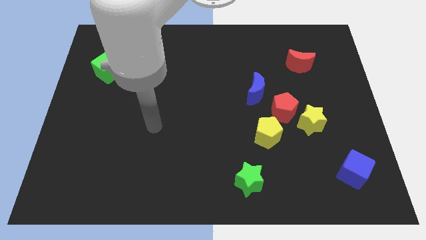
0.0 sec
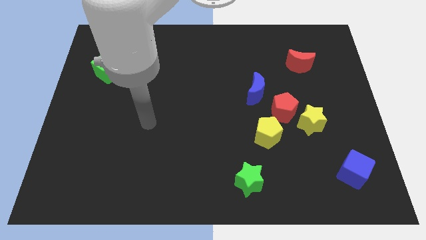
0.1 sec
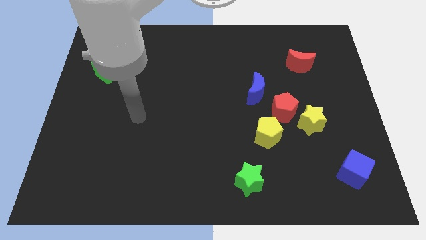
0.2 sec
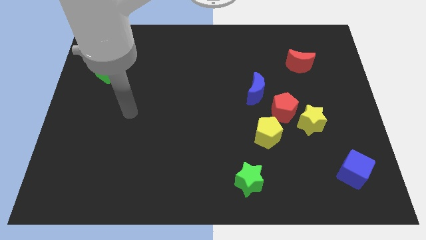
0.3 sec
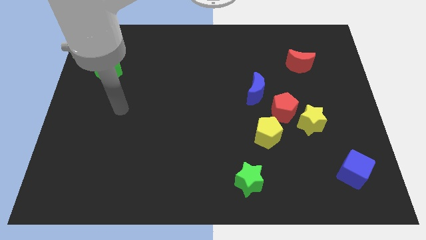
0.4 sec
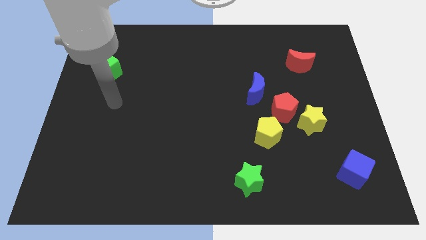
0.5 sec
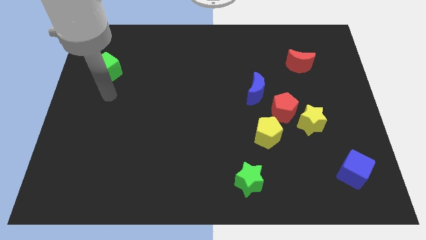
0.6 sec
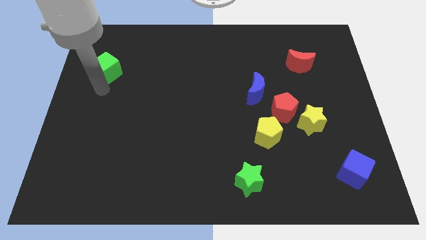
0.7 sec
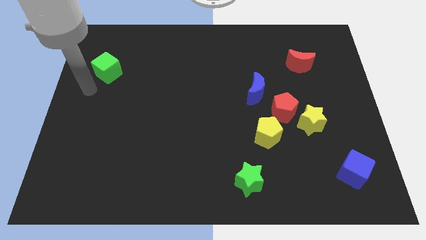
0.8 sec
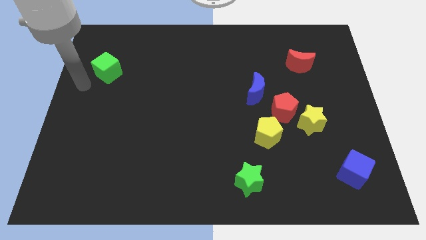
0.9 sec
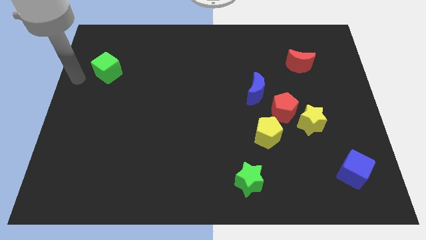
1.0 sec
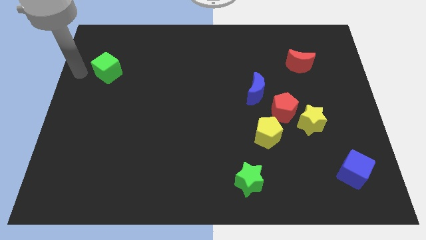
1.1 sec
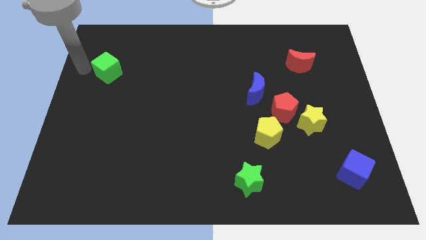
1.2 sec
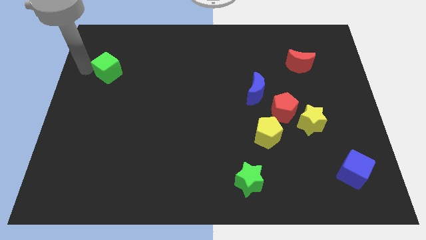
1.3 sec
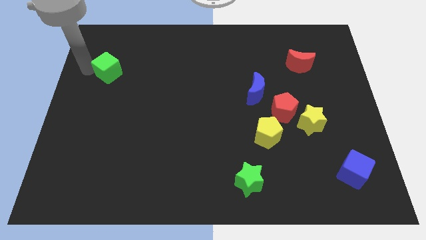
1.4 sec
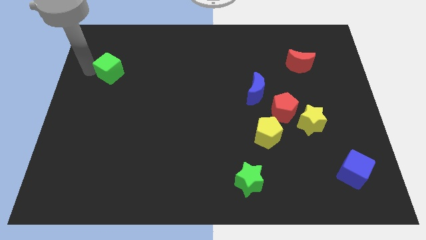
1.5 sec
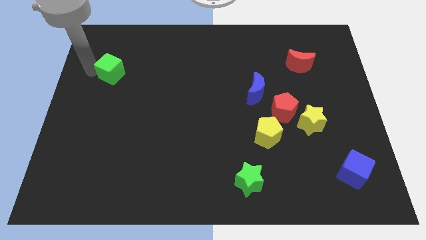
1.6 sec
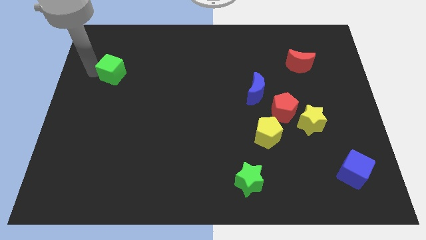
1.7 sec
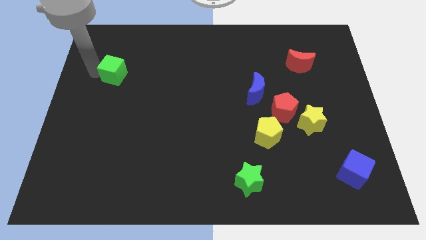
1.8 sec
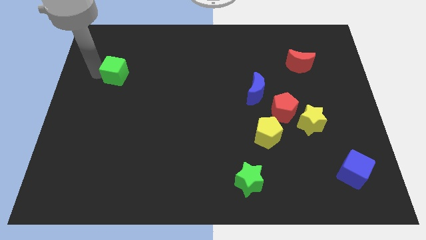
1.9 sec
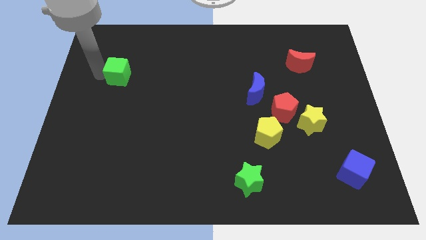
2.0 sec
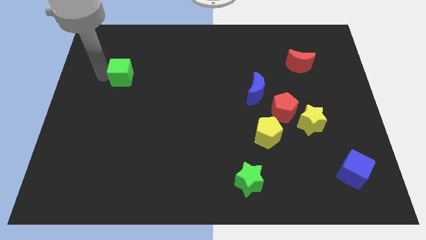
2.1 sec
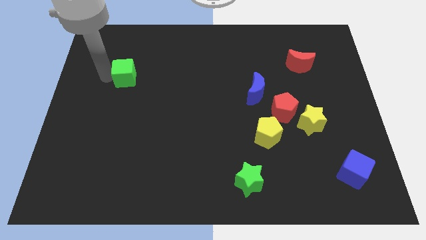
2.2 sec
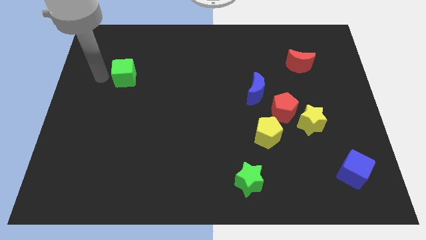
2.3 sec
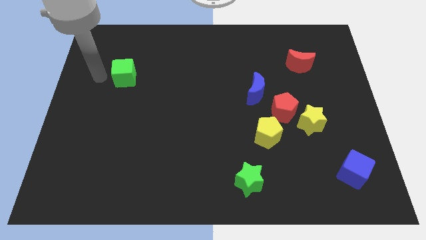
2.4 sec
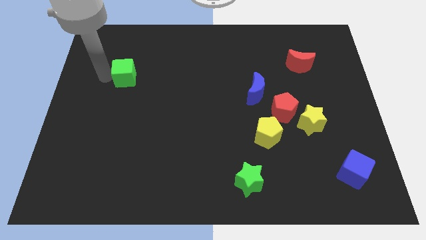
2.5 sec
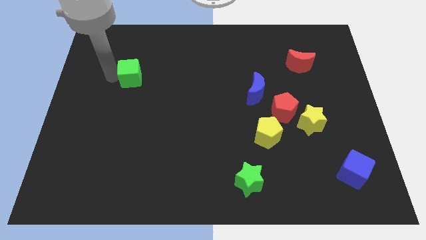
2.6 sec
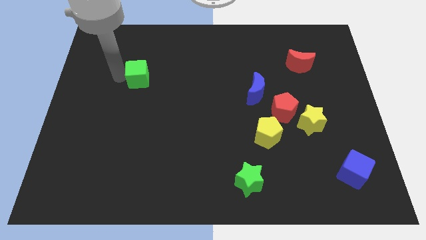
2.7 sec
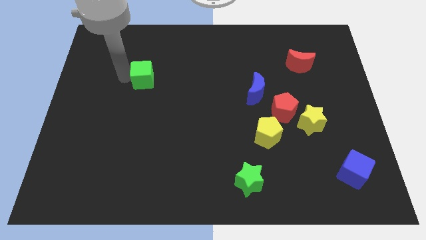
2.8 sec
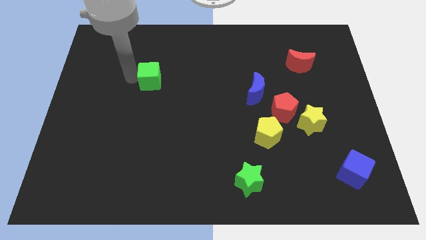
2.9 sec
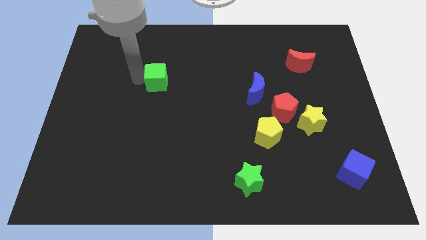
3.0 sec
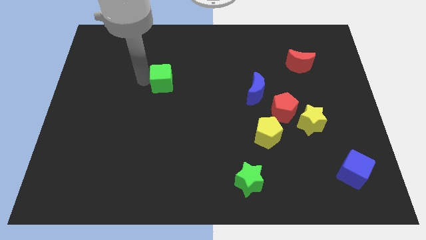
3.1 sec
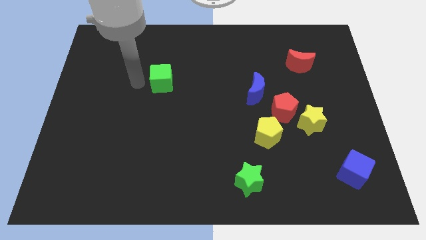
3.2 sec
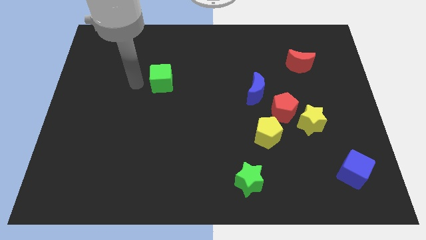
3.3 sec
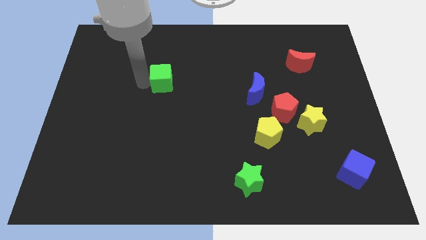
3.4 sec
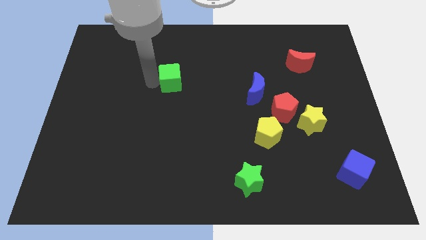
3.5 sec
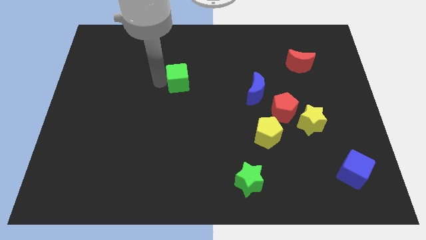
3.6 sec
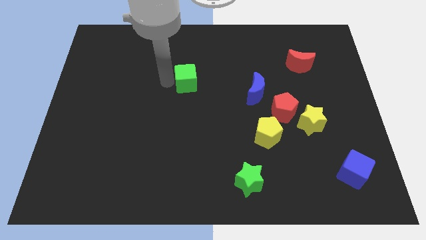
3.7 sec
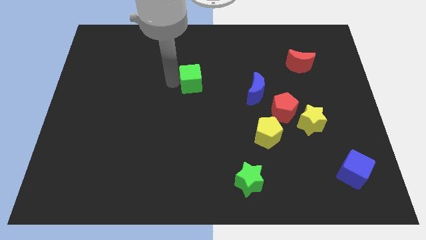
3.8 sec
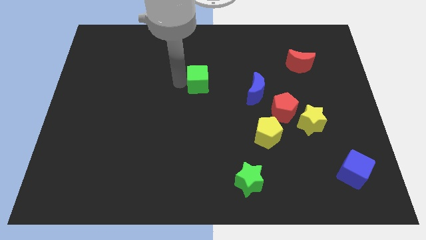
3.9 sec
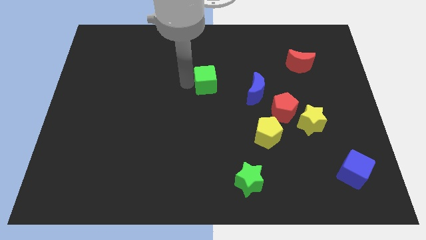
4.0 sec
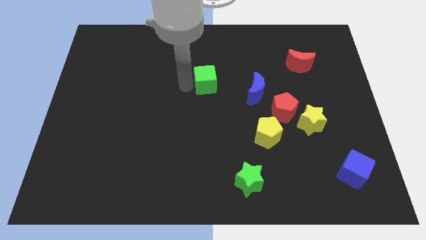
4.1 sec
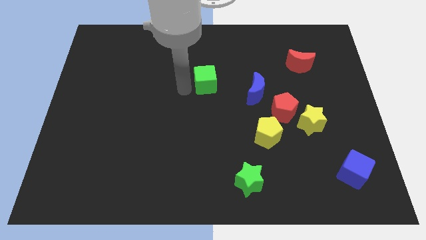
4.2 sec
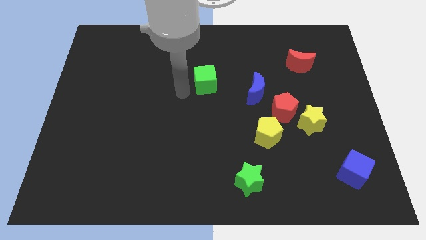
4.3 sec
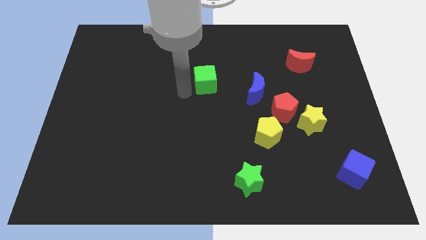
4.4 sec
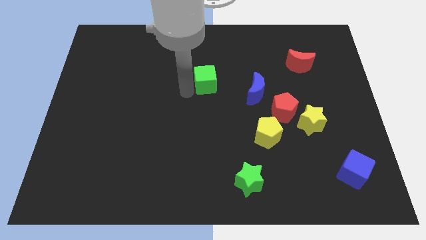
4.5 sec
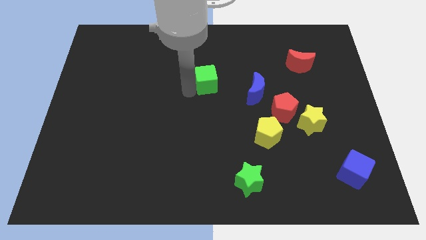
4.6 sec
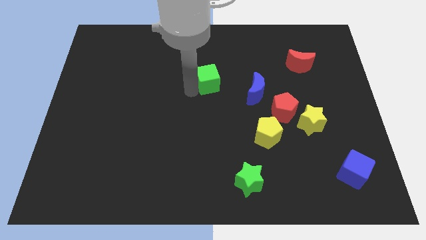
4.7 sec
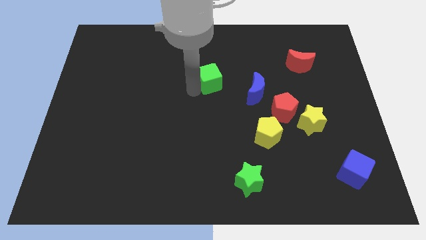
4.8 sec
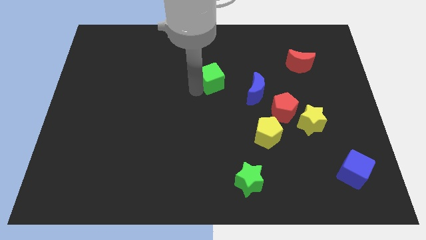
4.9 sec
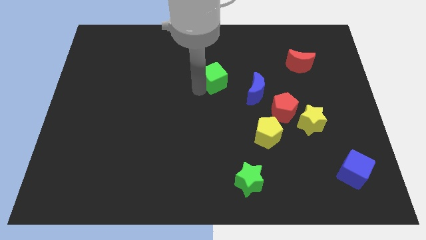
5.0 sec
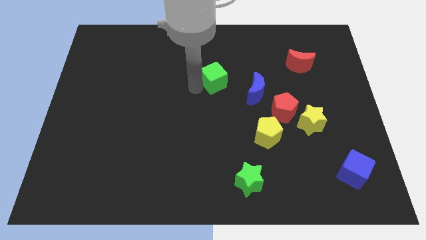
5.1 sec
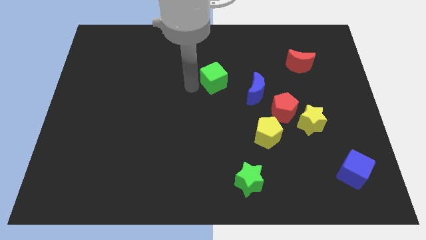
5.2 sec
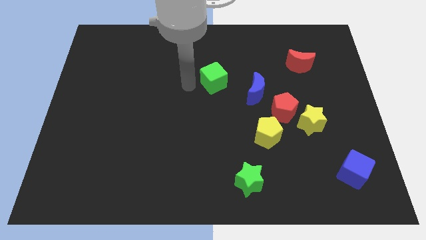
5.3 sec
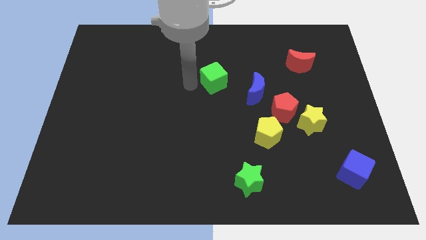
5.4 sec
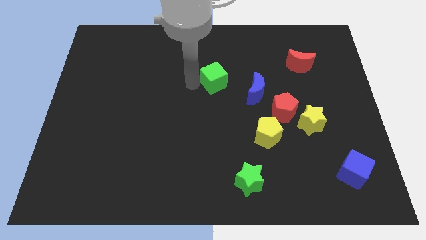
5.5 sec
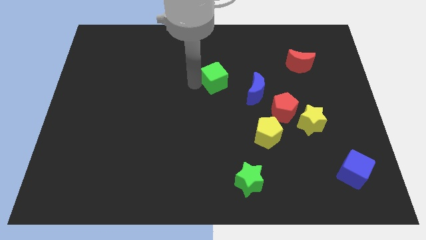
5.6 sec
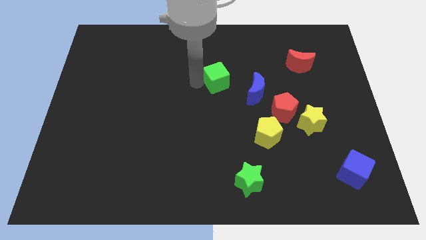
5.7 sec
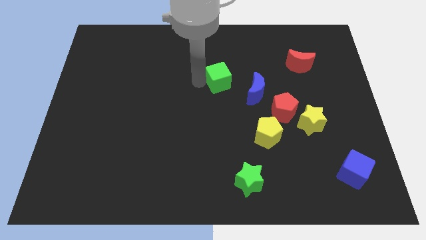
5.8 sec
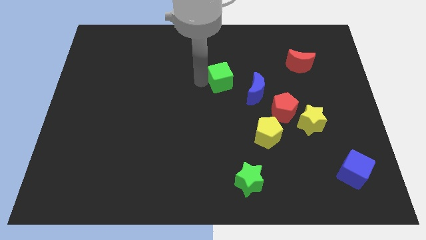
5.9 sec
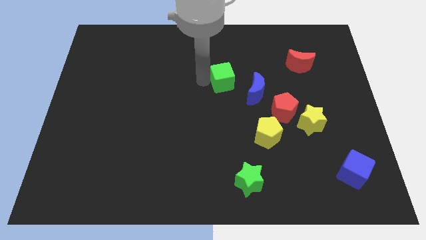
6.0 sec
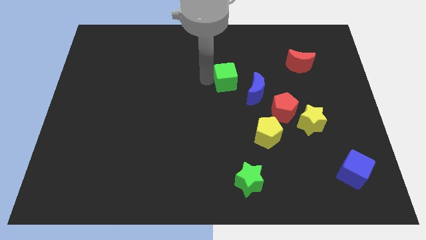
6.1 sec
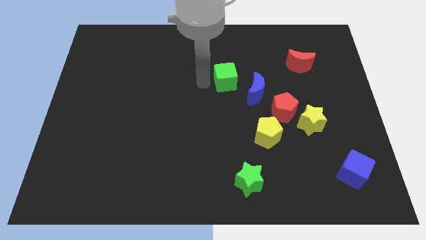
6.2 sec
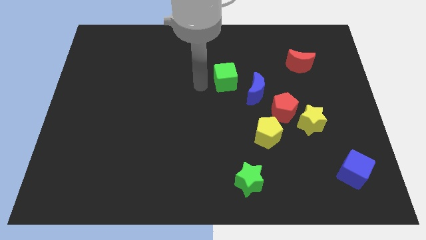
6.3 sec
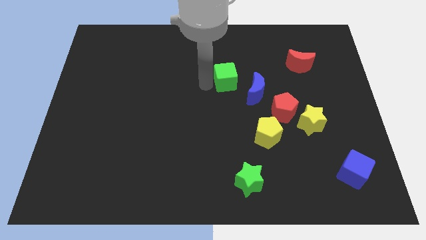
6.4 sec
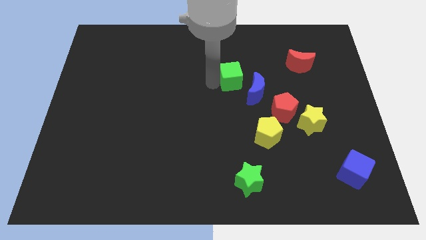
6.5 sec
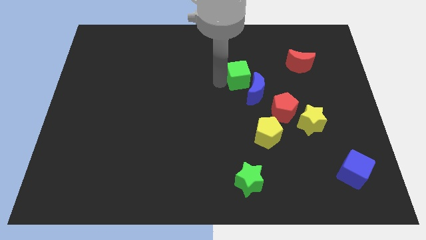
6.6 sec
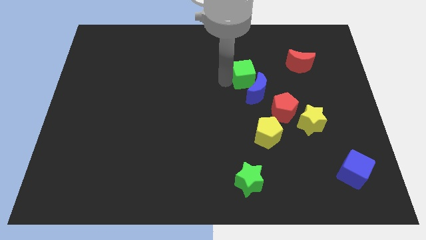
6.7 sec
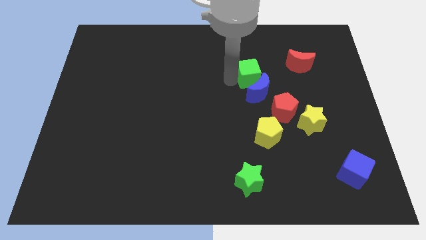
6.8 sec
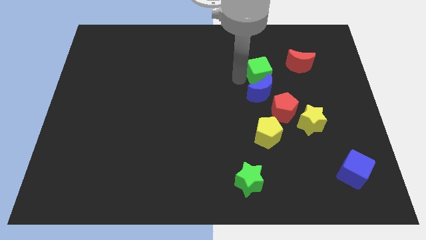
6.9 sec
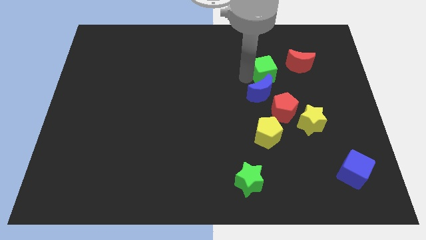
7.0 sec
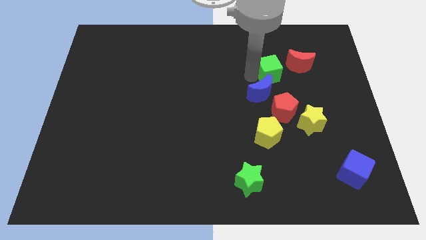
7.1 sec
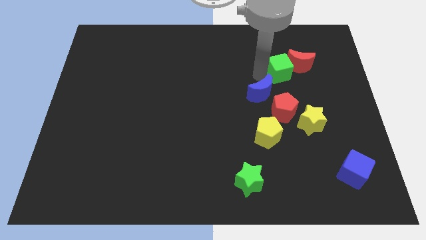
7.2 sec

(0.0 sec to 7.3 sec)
put the green cube to the red moon

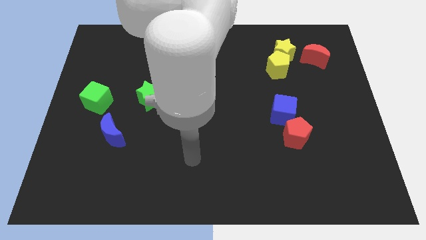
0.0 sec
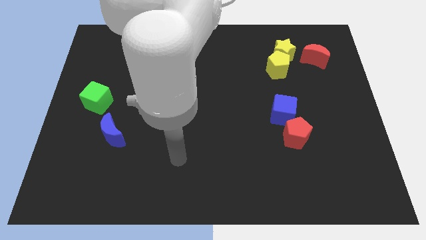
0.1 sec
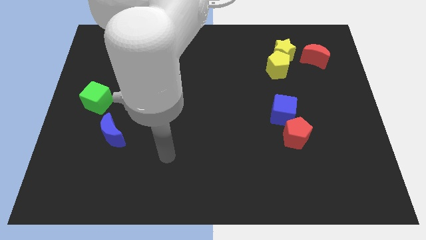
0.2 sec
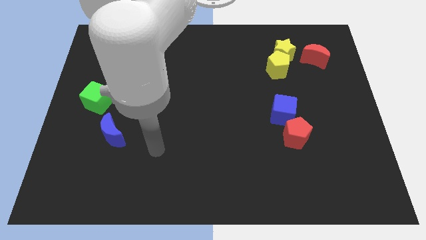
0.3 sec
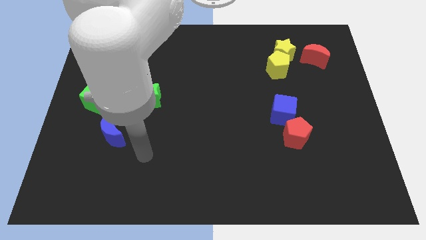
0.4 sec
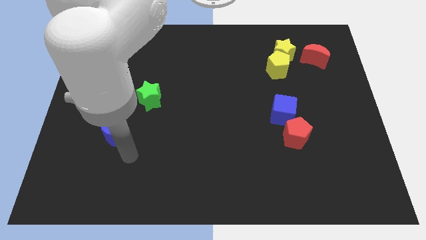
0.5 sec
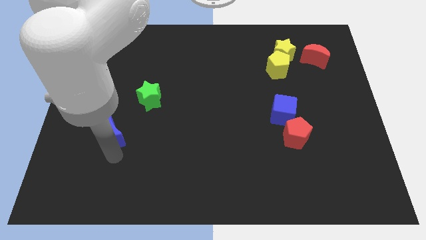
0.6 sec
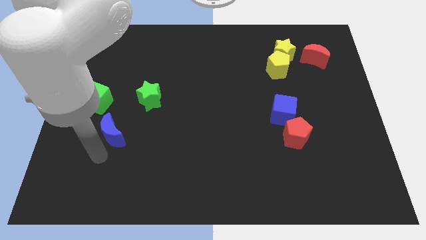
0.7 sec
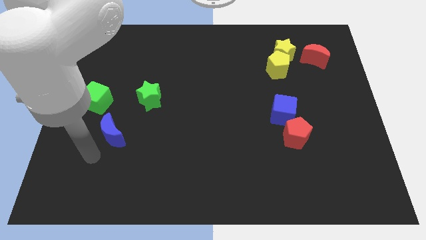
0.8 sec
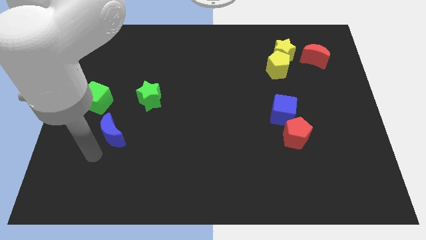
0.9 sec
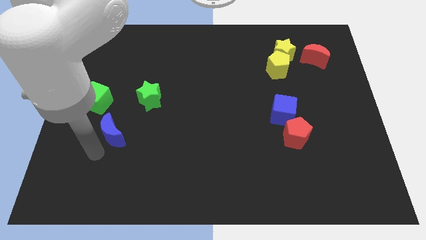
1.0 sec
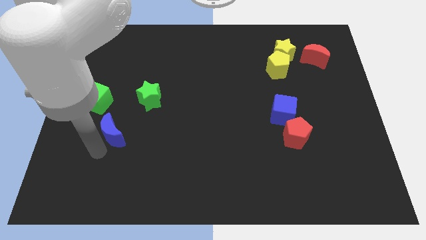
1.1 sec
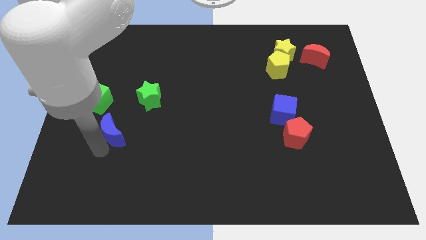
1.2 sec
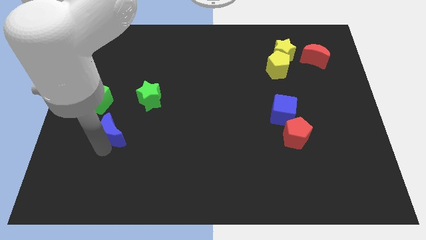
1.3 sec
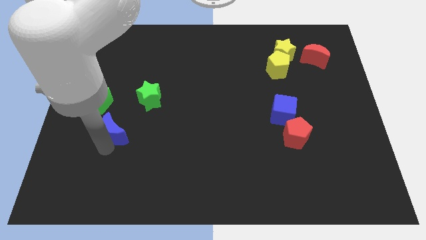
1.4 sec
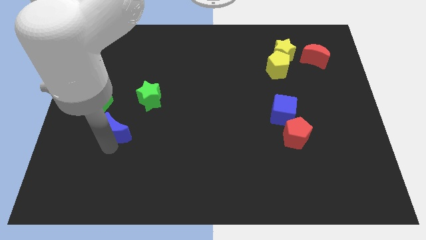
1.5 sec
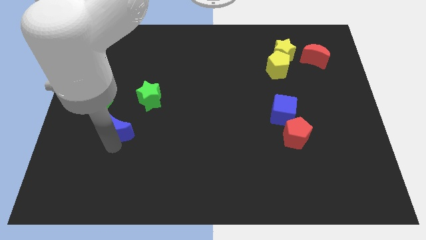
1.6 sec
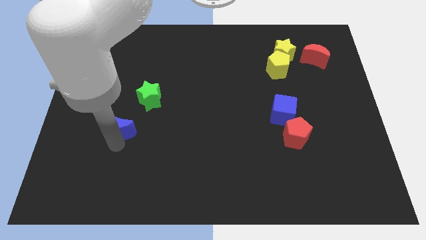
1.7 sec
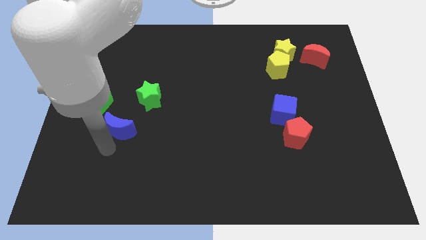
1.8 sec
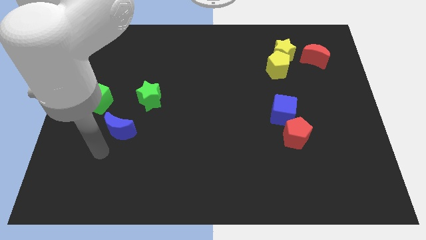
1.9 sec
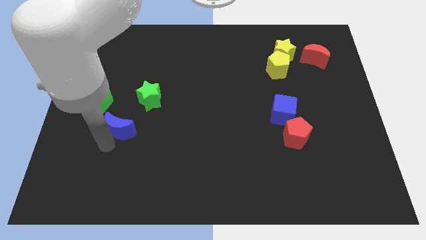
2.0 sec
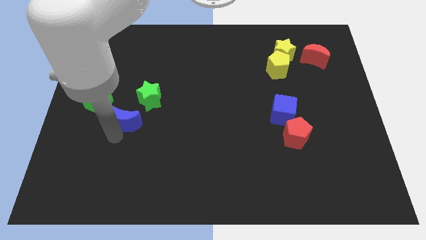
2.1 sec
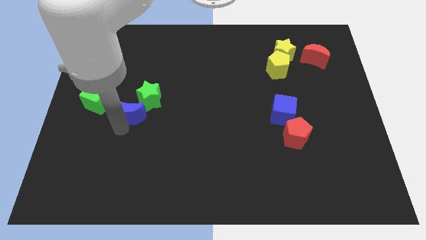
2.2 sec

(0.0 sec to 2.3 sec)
push the blue moon towards the green star
